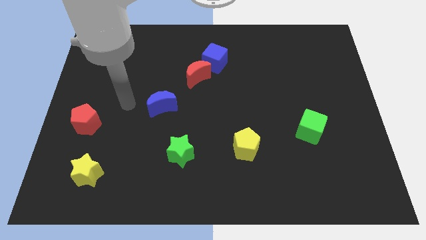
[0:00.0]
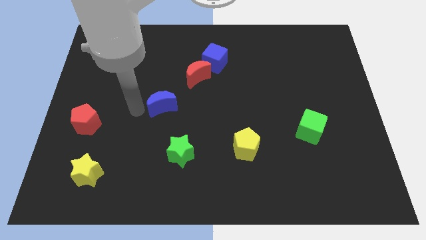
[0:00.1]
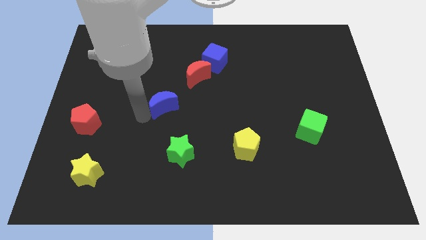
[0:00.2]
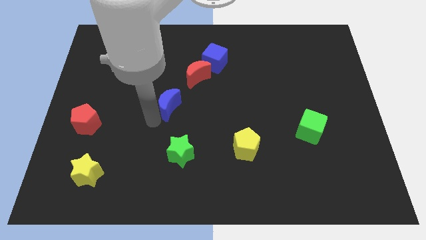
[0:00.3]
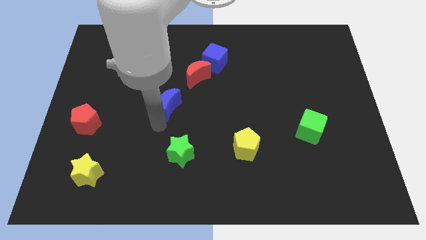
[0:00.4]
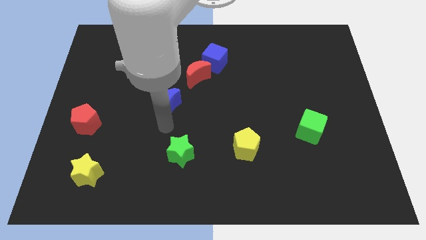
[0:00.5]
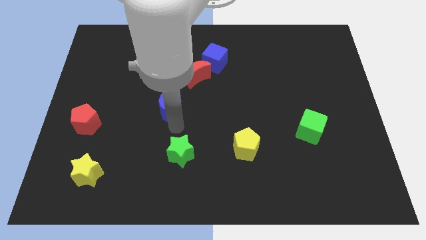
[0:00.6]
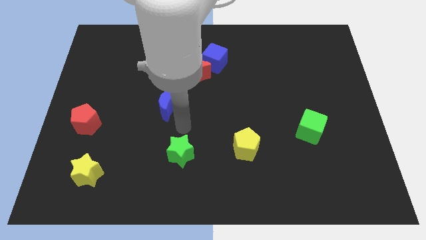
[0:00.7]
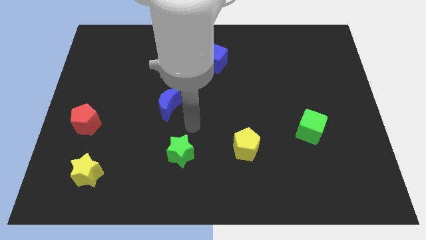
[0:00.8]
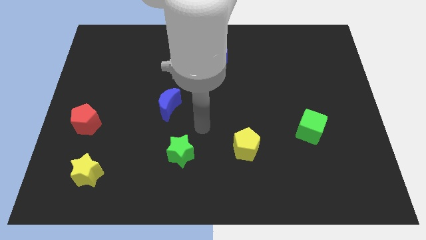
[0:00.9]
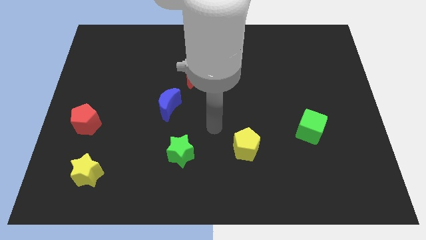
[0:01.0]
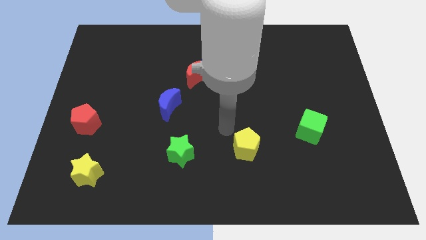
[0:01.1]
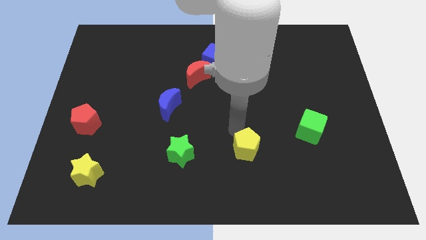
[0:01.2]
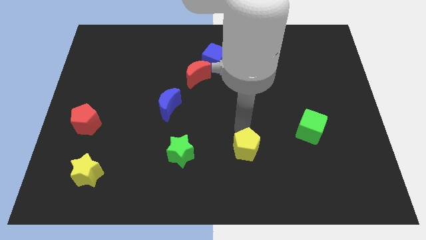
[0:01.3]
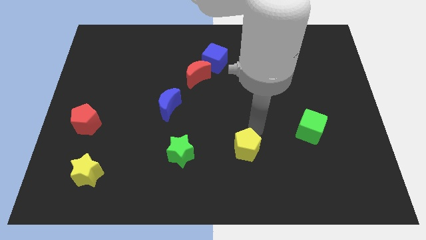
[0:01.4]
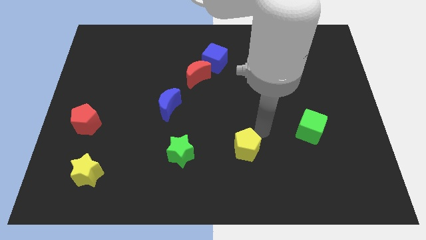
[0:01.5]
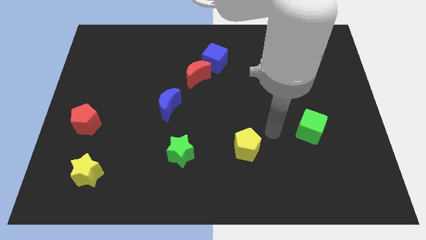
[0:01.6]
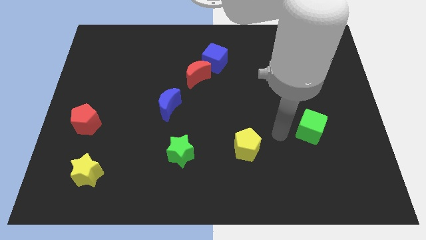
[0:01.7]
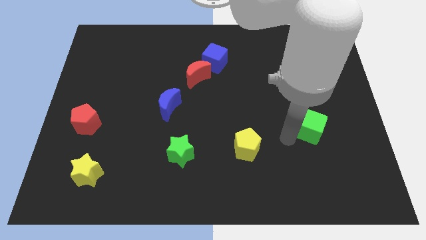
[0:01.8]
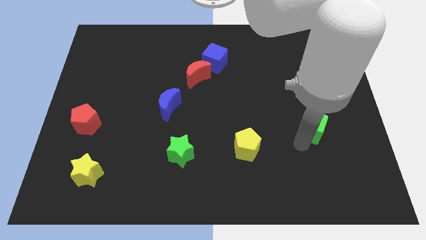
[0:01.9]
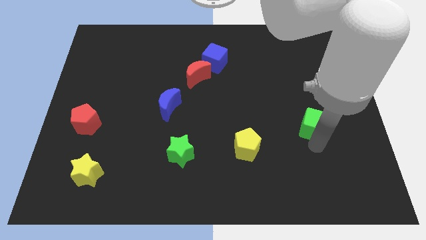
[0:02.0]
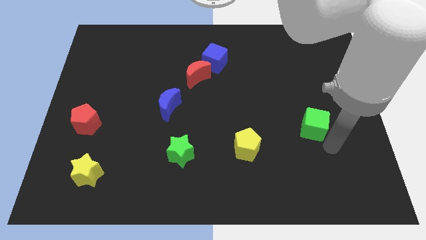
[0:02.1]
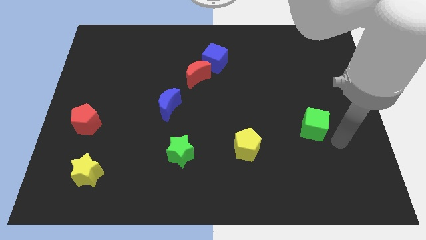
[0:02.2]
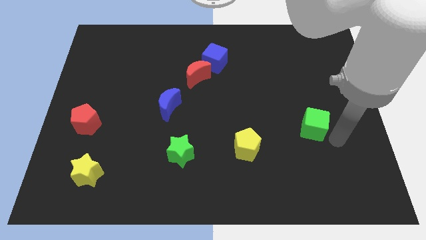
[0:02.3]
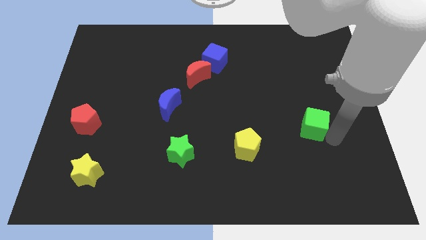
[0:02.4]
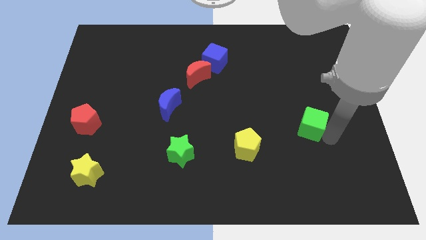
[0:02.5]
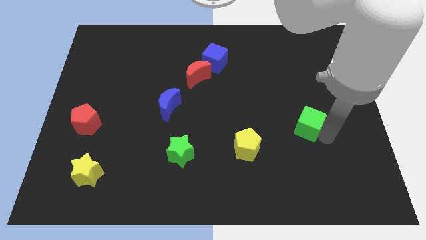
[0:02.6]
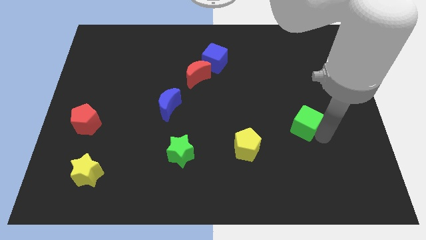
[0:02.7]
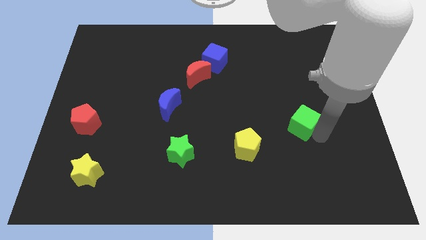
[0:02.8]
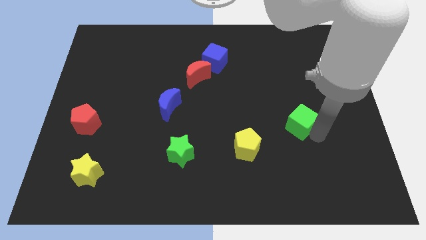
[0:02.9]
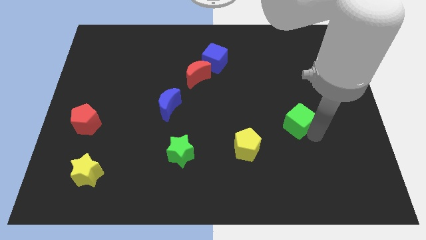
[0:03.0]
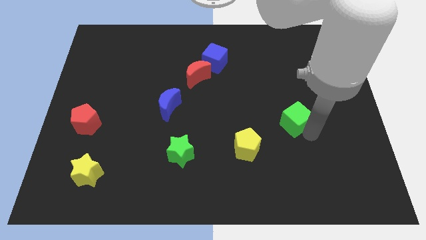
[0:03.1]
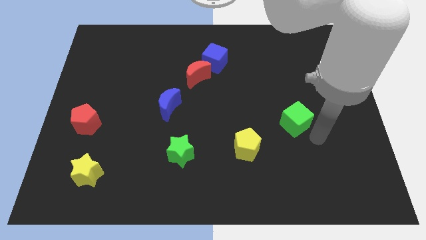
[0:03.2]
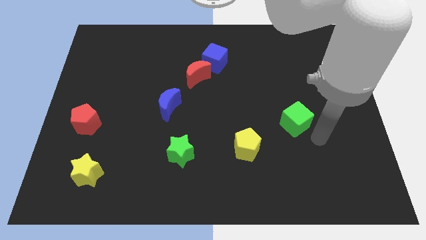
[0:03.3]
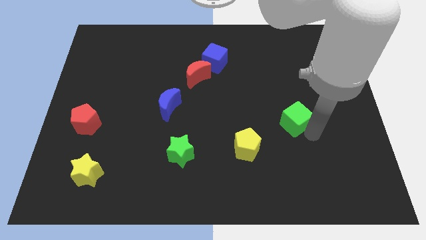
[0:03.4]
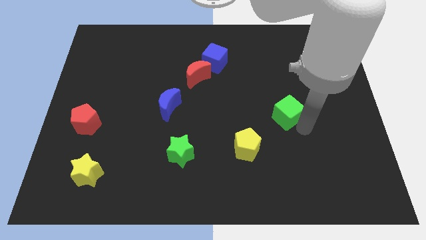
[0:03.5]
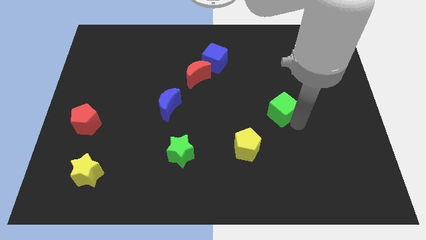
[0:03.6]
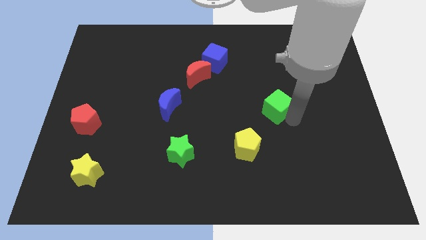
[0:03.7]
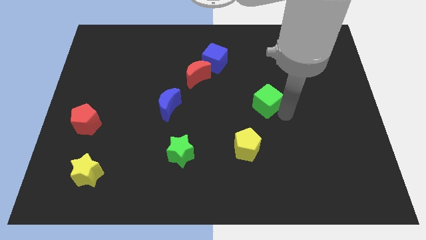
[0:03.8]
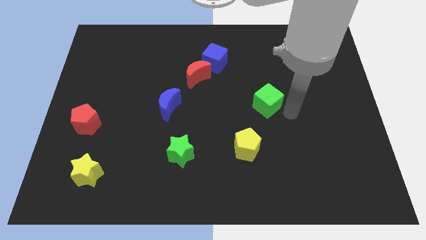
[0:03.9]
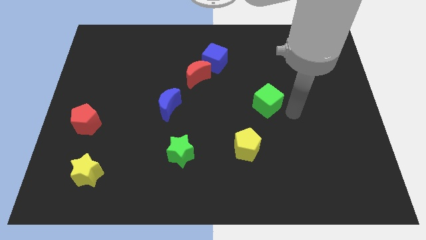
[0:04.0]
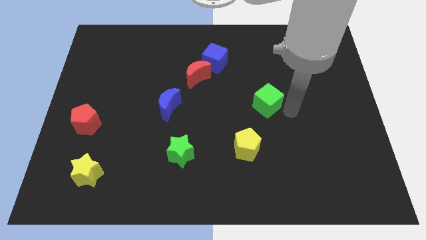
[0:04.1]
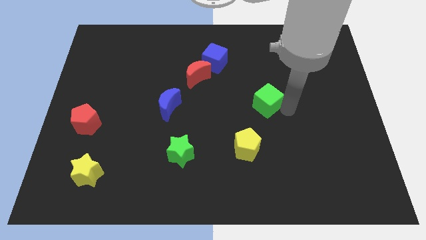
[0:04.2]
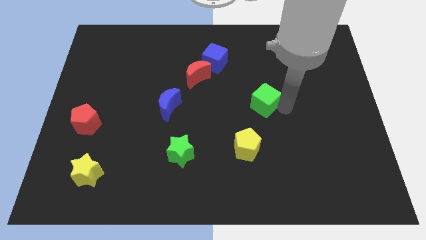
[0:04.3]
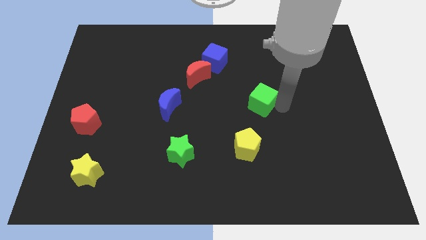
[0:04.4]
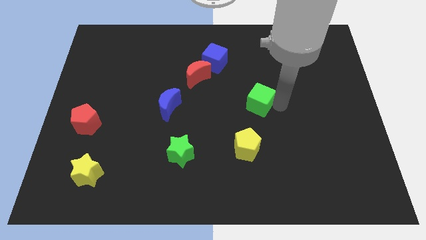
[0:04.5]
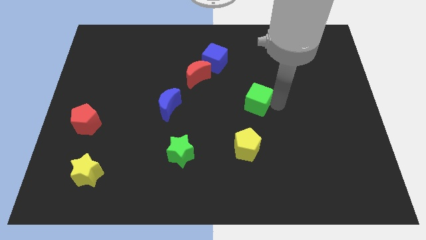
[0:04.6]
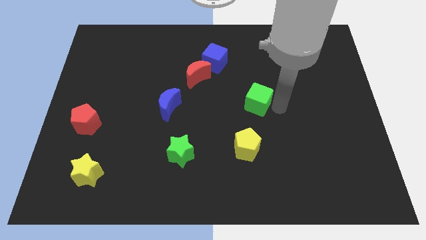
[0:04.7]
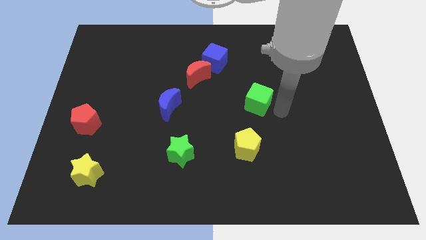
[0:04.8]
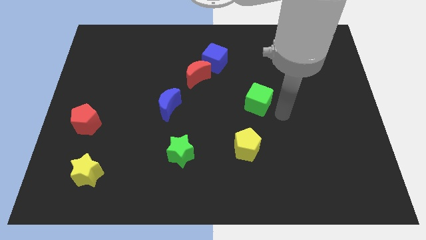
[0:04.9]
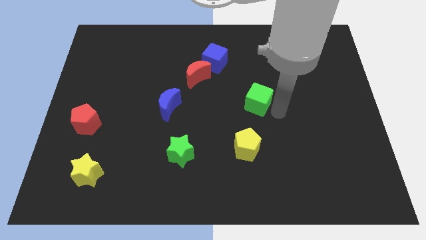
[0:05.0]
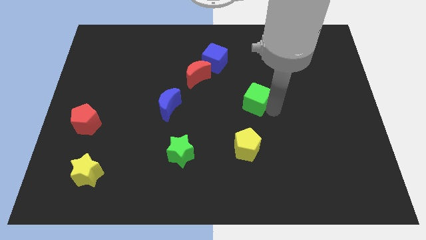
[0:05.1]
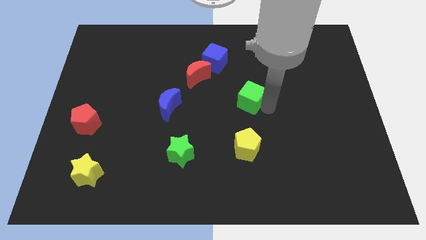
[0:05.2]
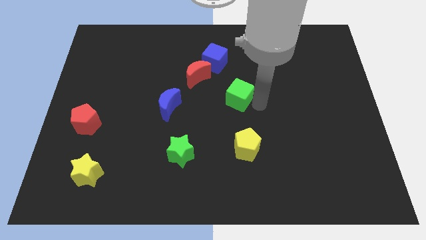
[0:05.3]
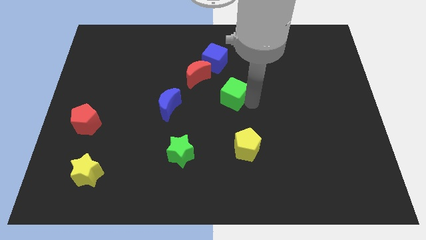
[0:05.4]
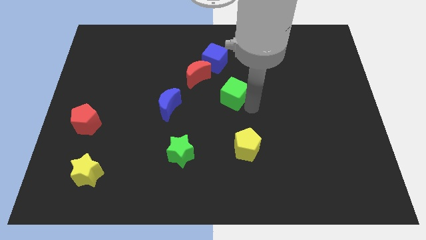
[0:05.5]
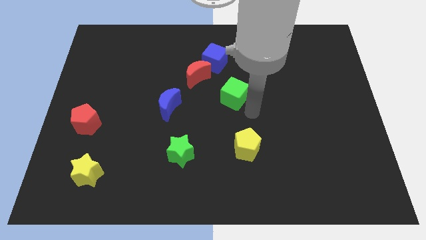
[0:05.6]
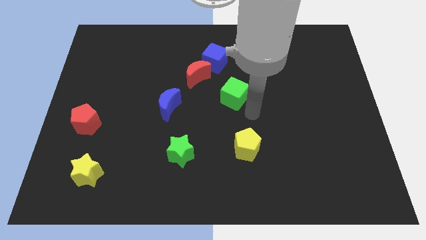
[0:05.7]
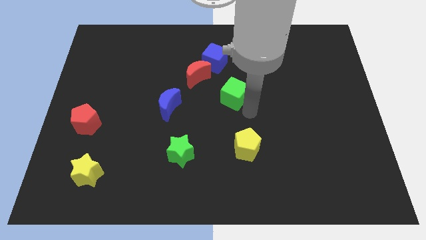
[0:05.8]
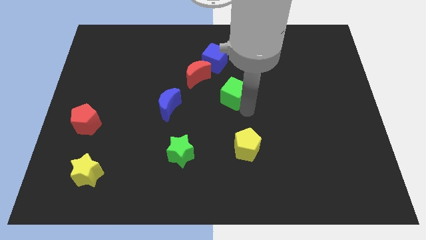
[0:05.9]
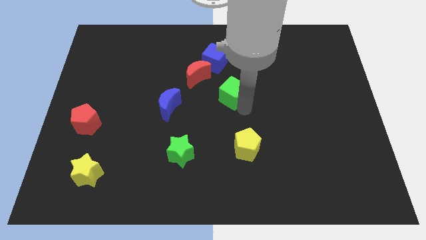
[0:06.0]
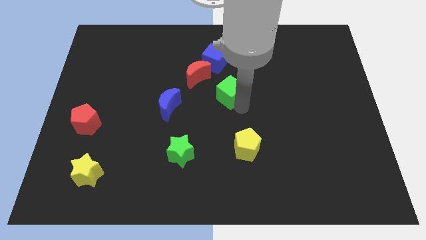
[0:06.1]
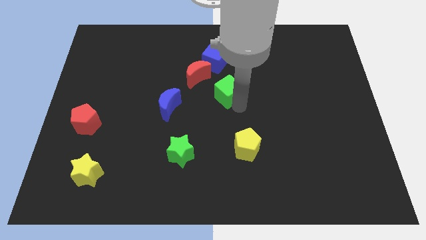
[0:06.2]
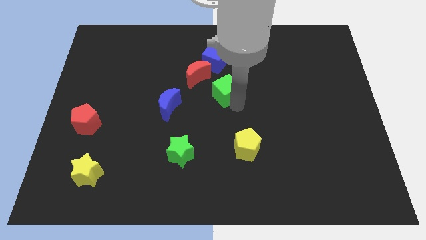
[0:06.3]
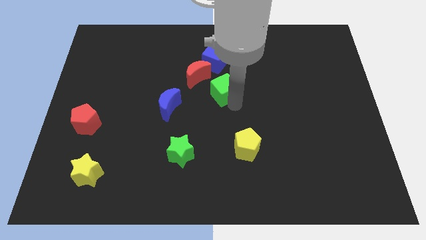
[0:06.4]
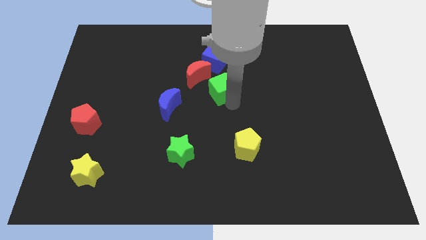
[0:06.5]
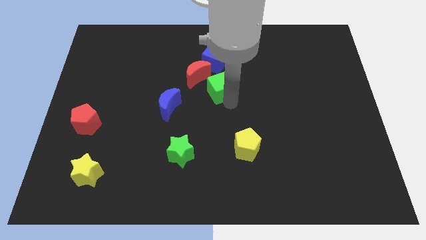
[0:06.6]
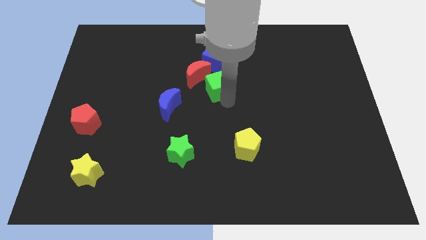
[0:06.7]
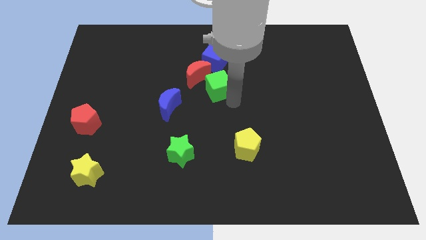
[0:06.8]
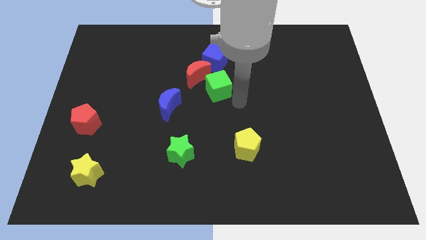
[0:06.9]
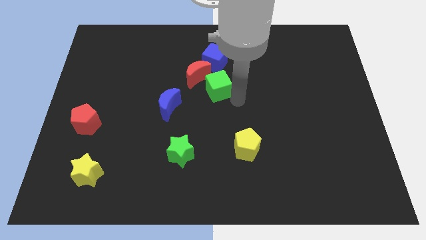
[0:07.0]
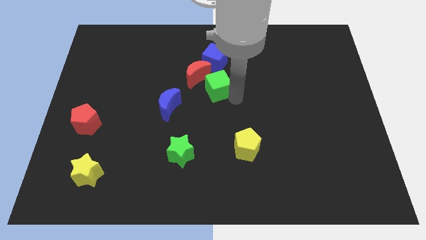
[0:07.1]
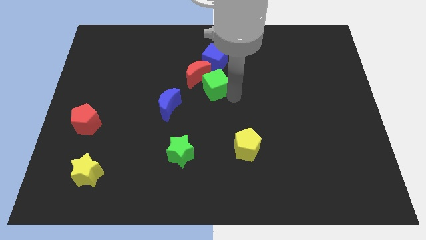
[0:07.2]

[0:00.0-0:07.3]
slide the green cube next to the red moon
